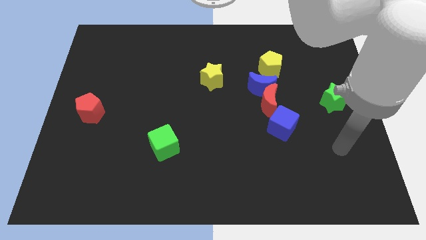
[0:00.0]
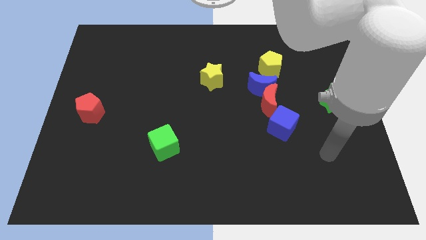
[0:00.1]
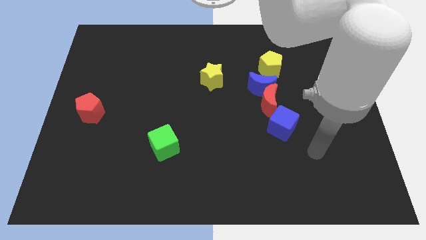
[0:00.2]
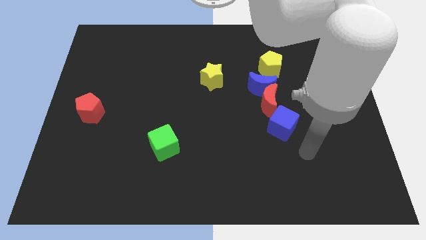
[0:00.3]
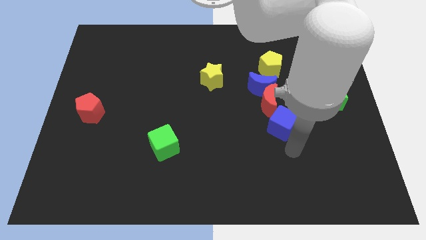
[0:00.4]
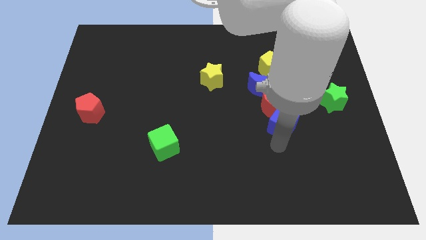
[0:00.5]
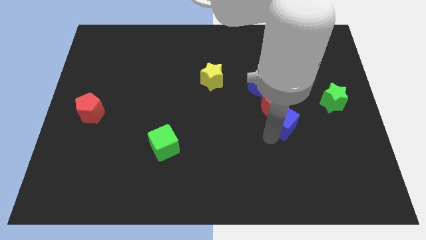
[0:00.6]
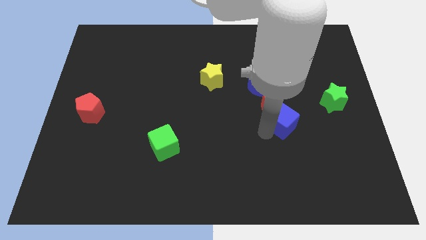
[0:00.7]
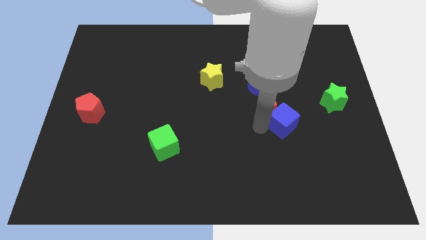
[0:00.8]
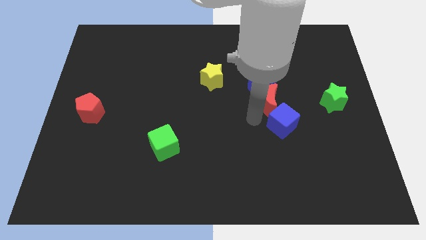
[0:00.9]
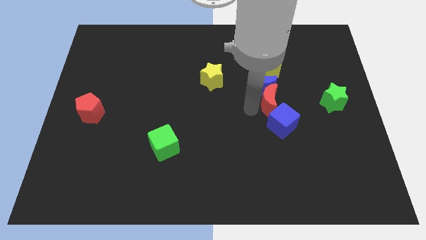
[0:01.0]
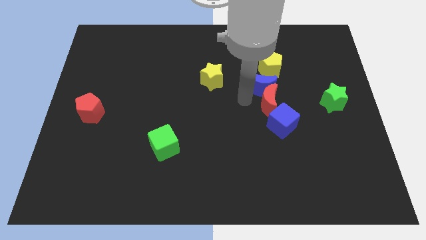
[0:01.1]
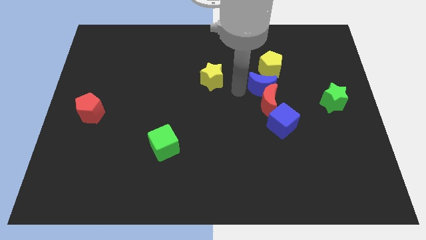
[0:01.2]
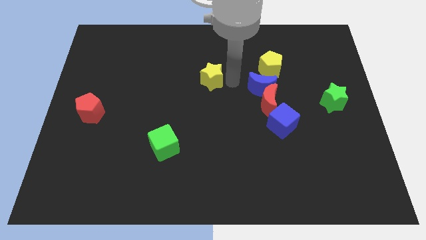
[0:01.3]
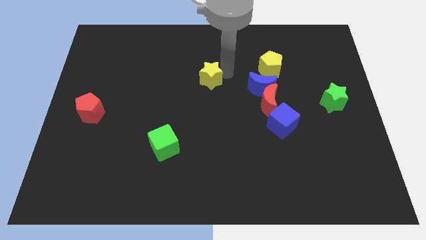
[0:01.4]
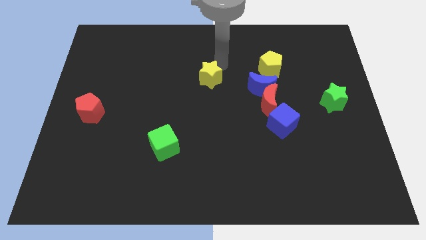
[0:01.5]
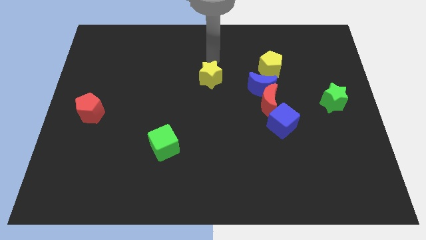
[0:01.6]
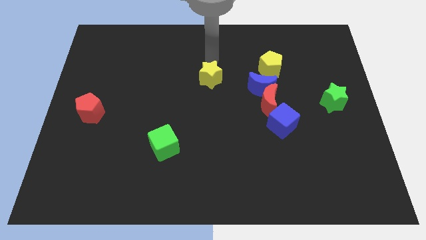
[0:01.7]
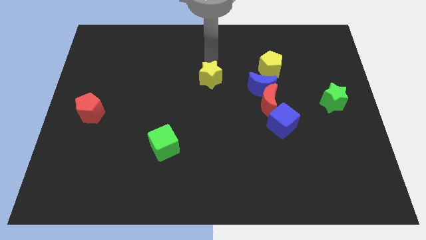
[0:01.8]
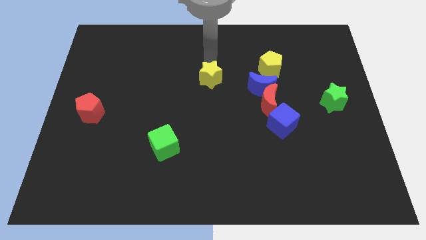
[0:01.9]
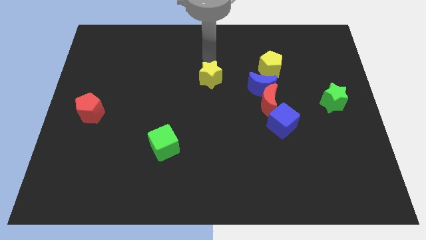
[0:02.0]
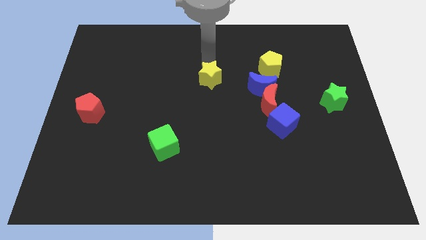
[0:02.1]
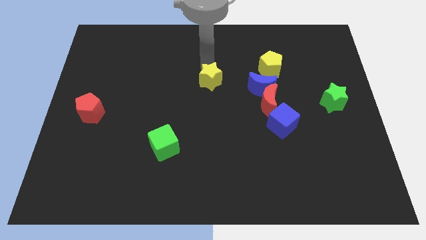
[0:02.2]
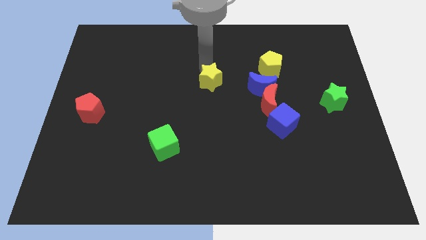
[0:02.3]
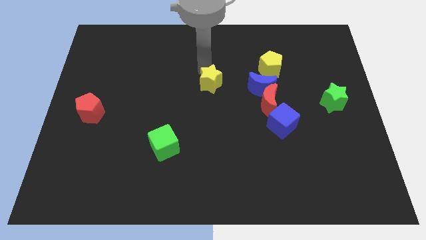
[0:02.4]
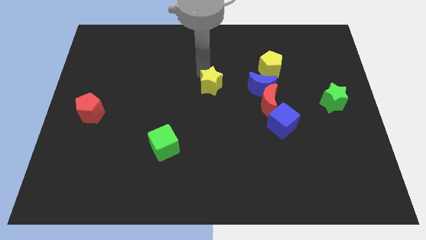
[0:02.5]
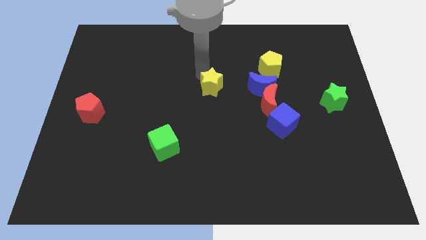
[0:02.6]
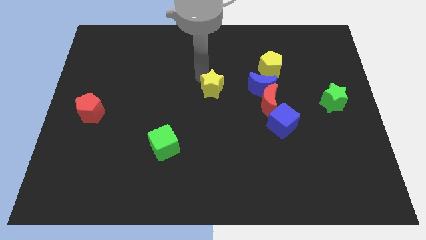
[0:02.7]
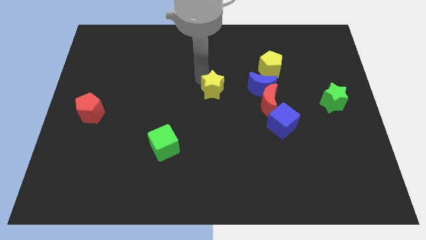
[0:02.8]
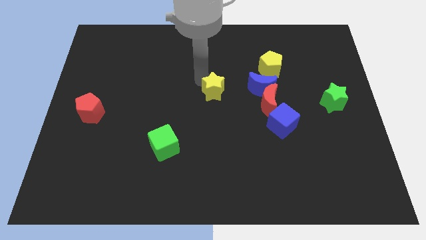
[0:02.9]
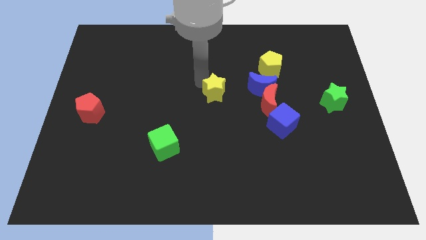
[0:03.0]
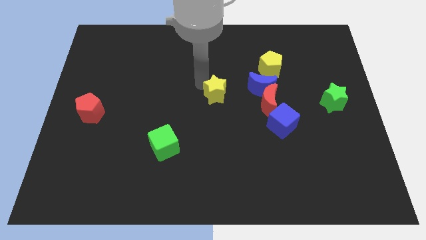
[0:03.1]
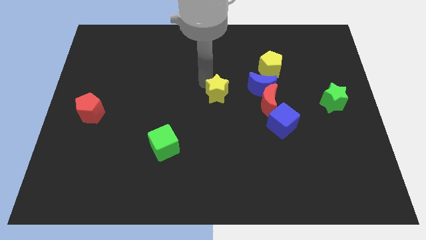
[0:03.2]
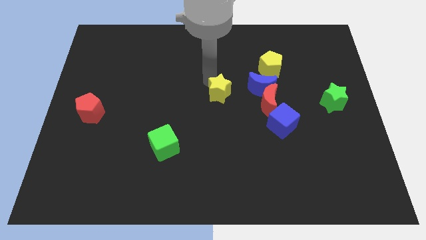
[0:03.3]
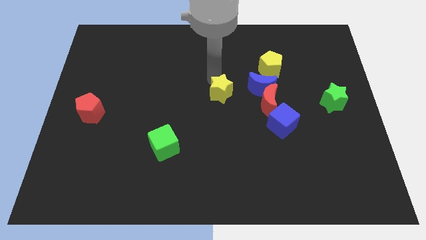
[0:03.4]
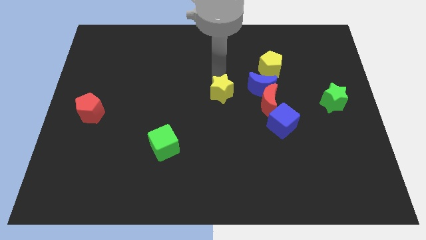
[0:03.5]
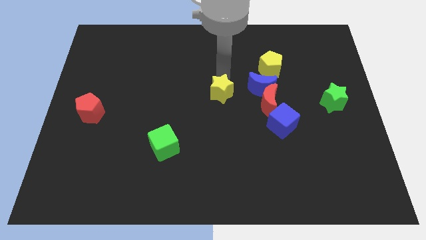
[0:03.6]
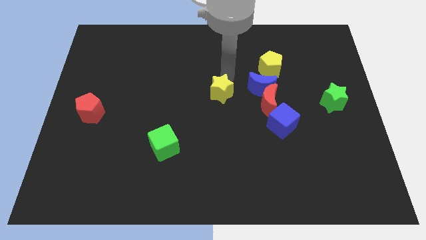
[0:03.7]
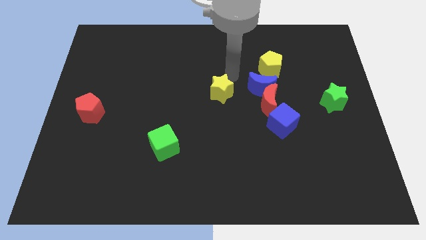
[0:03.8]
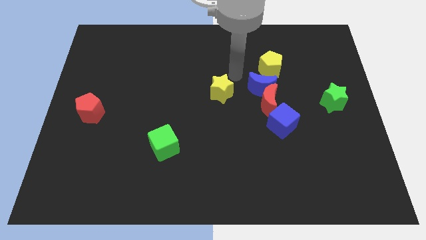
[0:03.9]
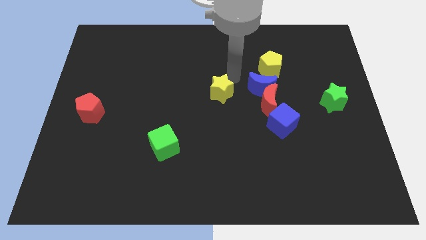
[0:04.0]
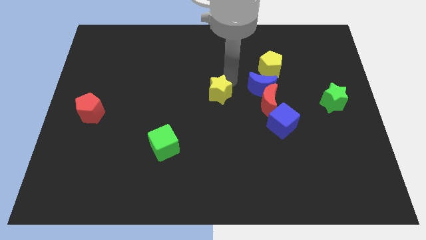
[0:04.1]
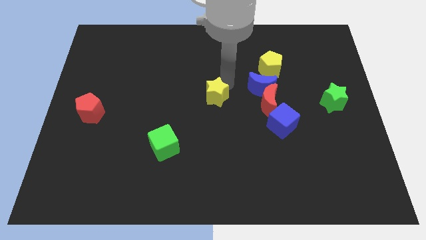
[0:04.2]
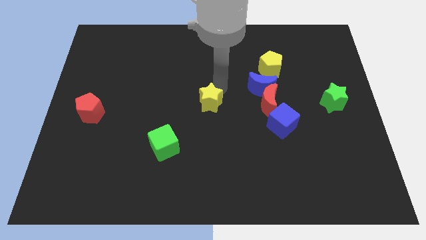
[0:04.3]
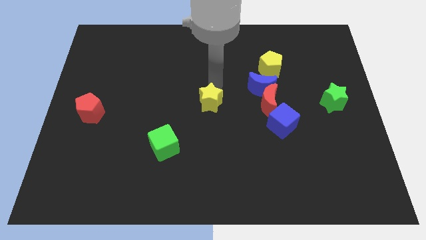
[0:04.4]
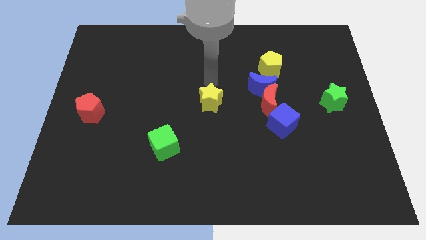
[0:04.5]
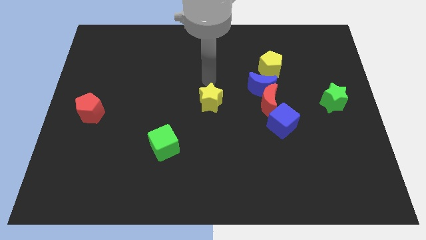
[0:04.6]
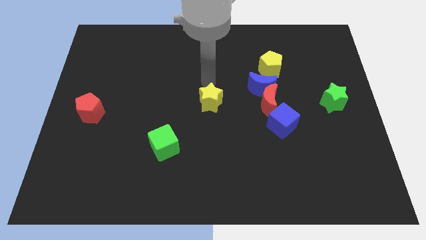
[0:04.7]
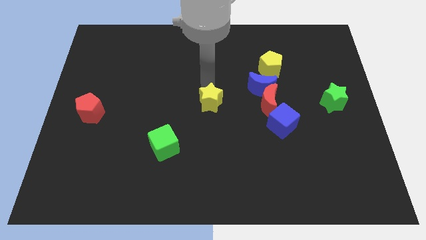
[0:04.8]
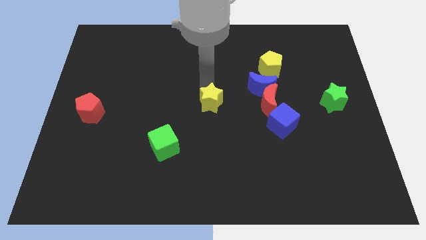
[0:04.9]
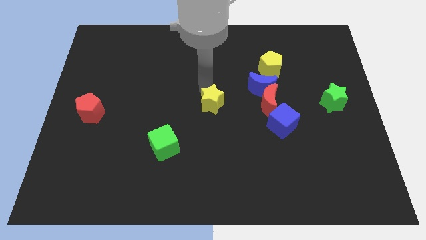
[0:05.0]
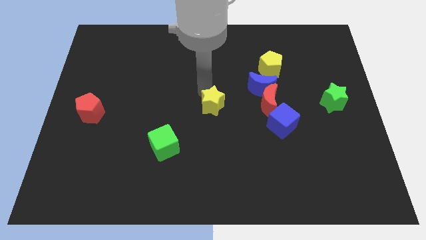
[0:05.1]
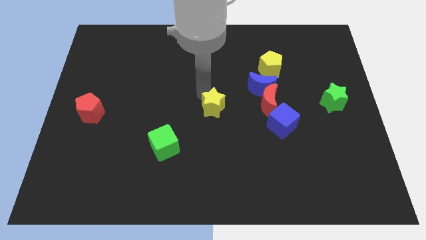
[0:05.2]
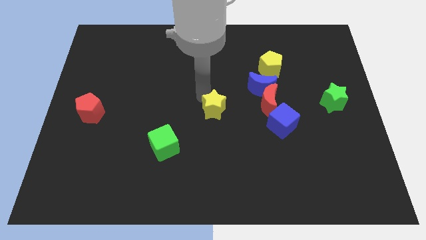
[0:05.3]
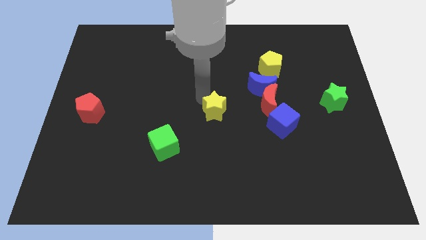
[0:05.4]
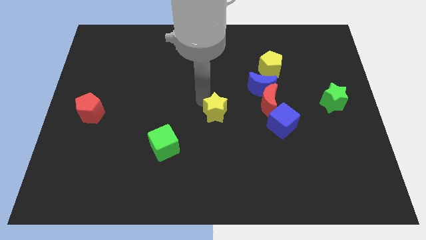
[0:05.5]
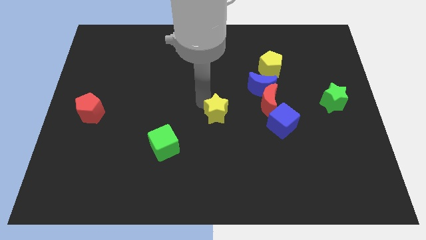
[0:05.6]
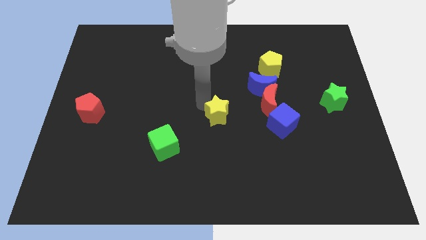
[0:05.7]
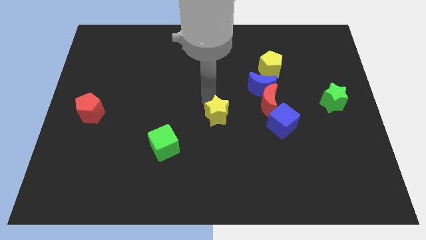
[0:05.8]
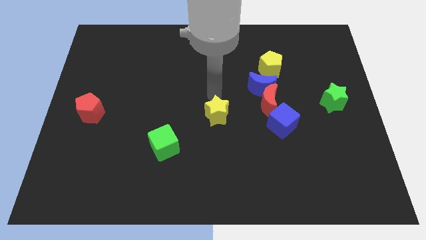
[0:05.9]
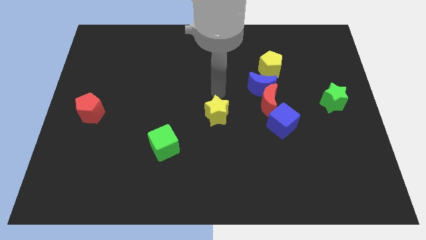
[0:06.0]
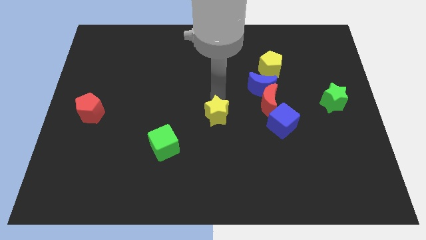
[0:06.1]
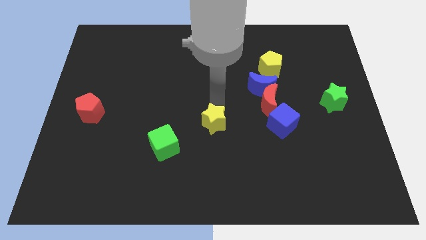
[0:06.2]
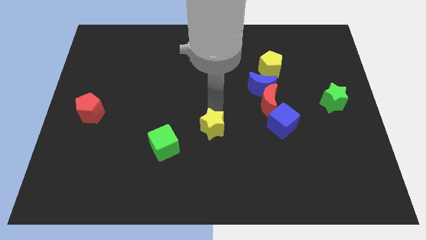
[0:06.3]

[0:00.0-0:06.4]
push the yellow star right of the green cube
